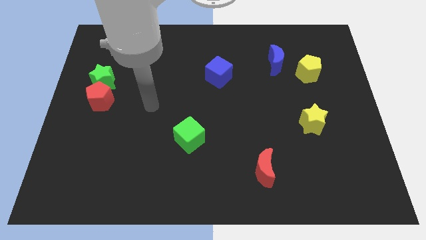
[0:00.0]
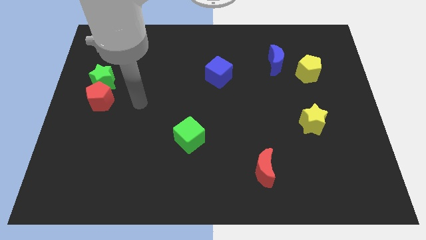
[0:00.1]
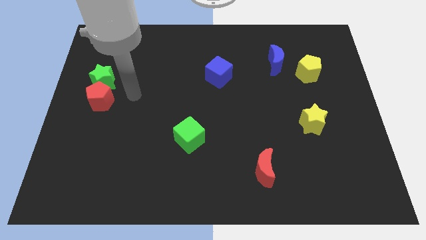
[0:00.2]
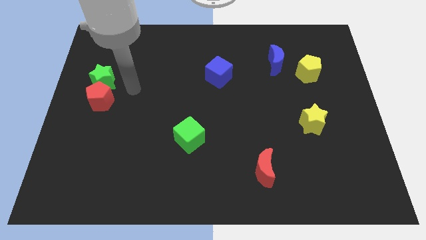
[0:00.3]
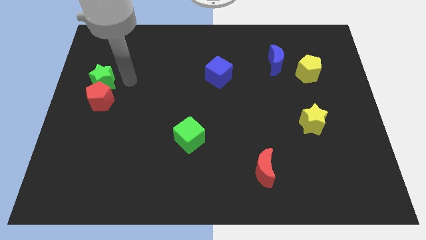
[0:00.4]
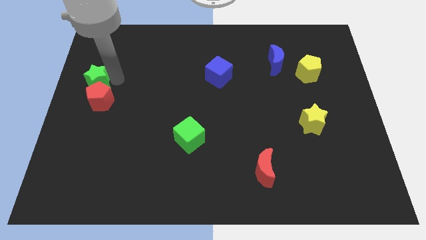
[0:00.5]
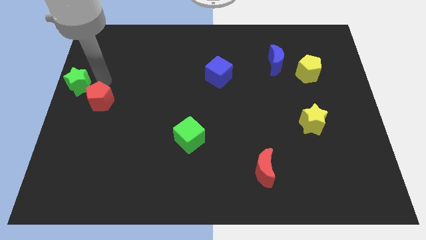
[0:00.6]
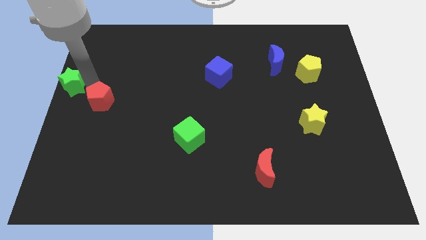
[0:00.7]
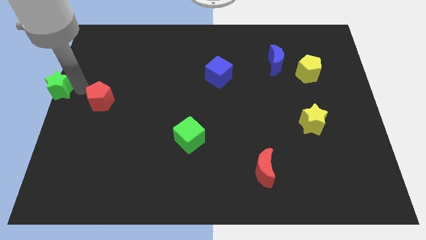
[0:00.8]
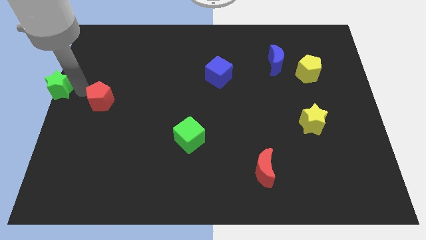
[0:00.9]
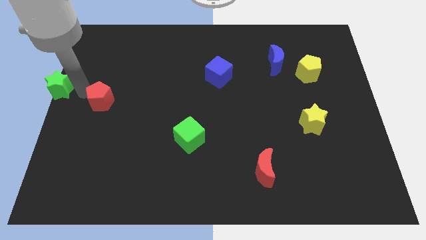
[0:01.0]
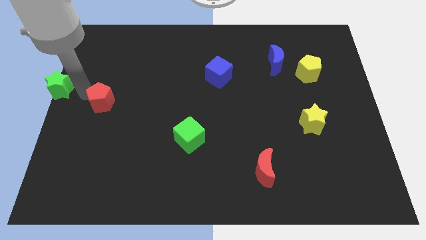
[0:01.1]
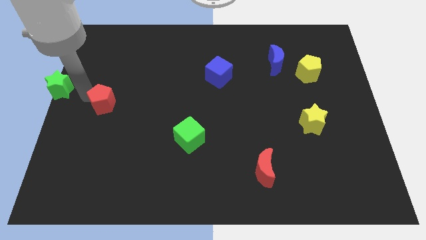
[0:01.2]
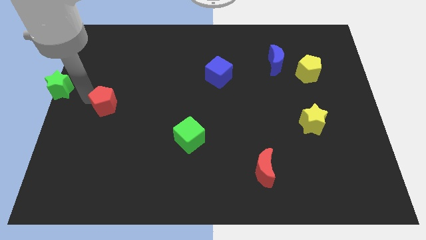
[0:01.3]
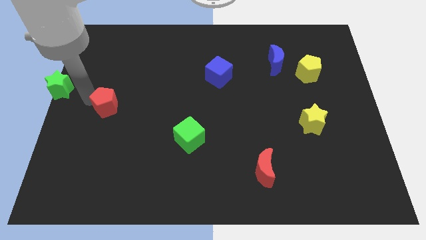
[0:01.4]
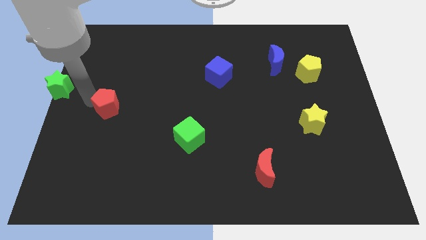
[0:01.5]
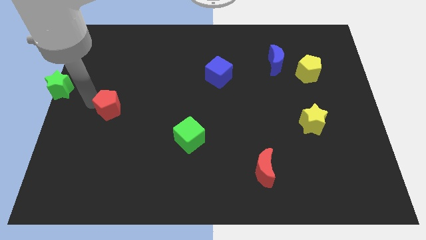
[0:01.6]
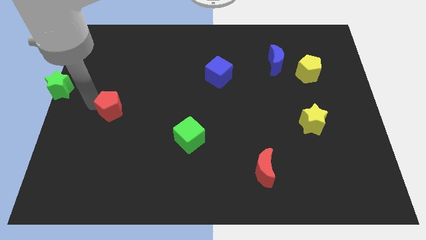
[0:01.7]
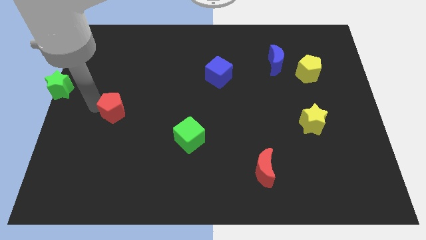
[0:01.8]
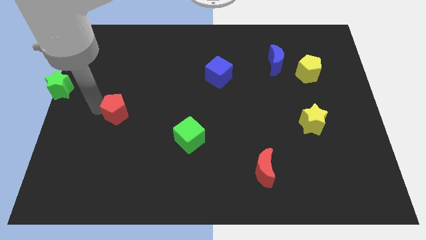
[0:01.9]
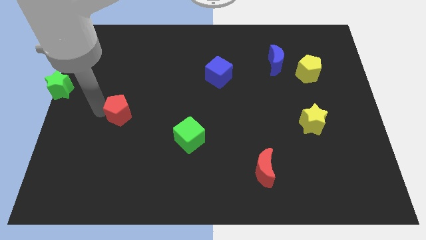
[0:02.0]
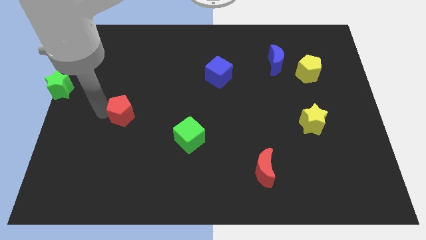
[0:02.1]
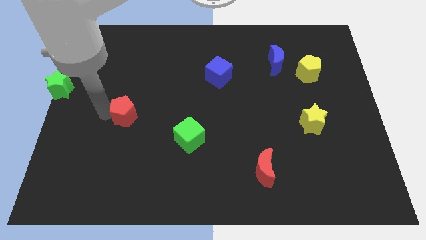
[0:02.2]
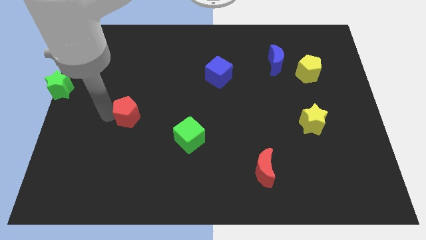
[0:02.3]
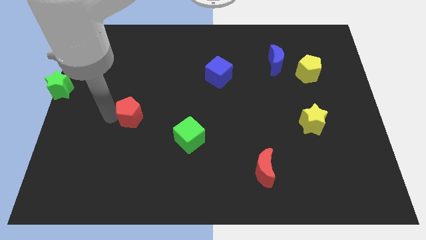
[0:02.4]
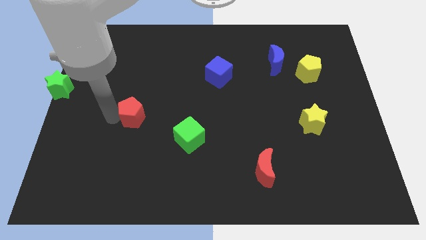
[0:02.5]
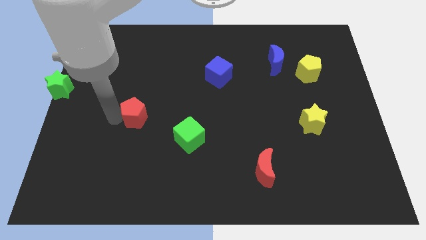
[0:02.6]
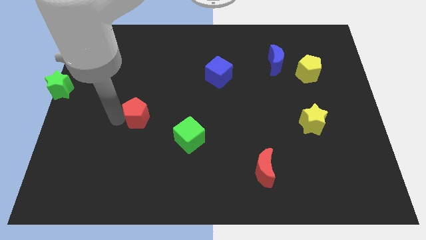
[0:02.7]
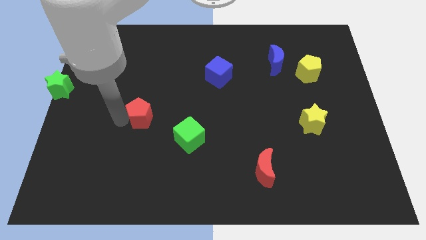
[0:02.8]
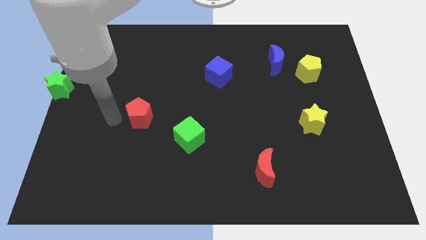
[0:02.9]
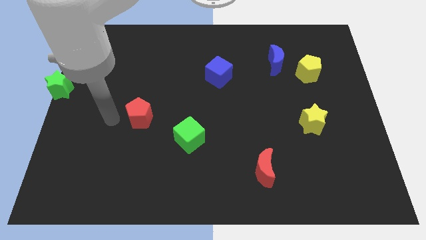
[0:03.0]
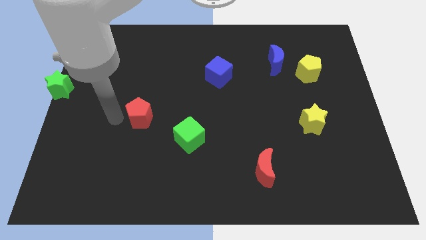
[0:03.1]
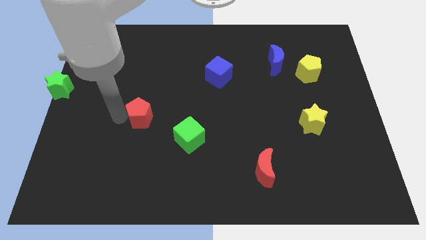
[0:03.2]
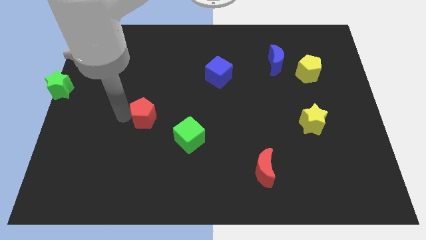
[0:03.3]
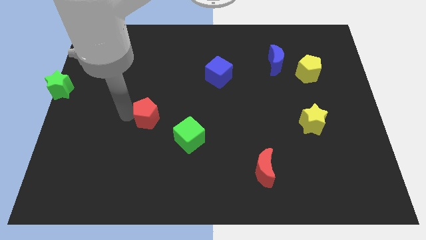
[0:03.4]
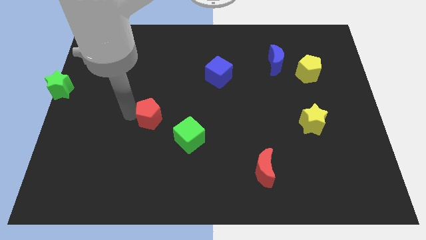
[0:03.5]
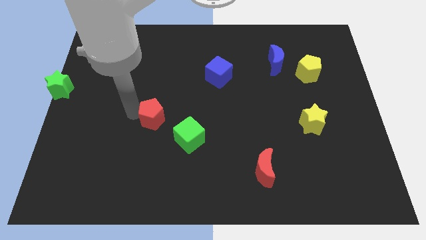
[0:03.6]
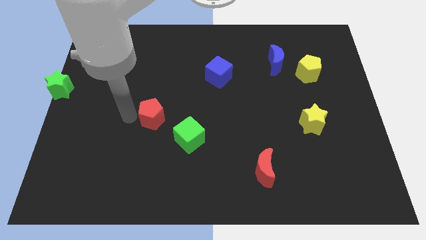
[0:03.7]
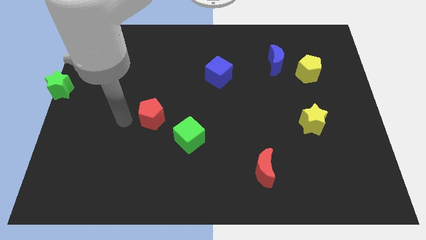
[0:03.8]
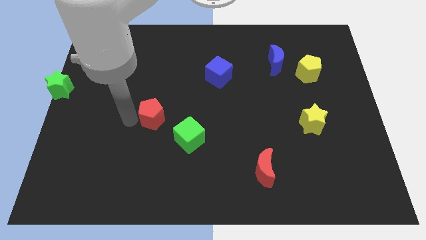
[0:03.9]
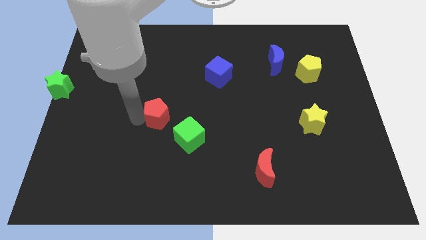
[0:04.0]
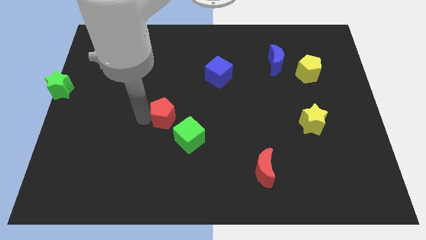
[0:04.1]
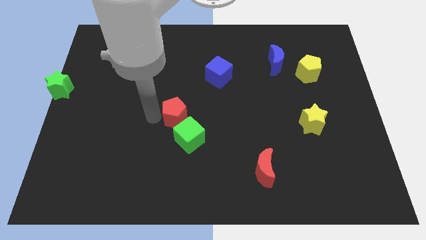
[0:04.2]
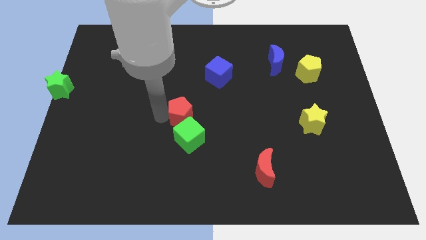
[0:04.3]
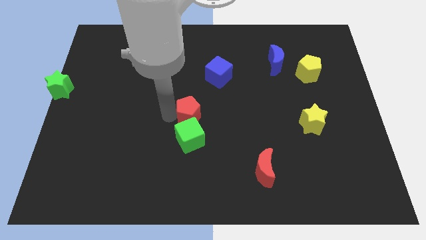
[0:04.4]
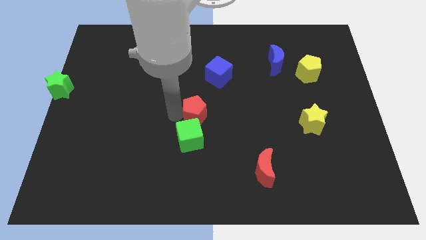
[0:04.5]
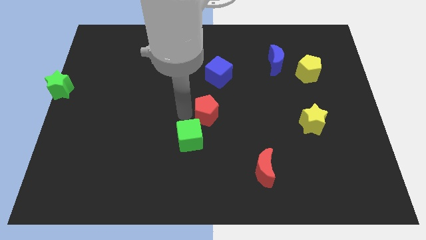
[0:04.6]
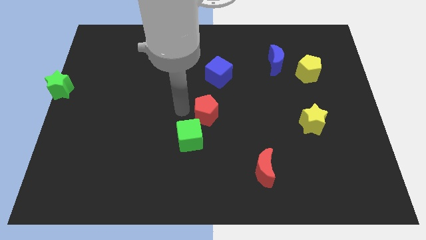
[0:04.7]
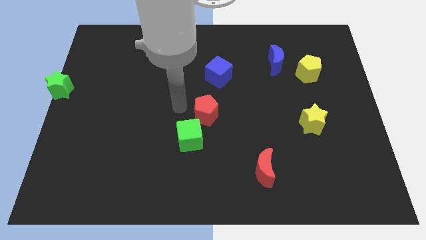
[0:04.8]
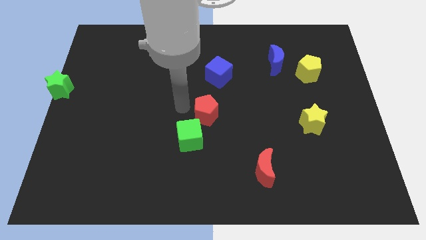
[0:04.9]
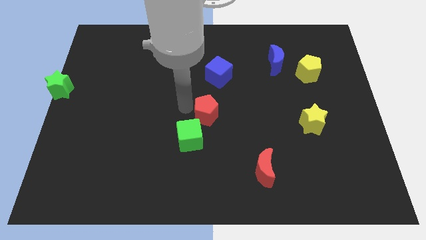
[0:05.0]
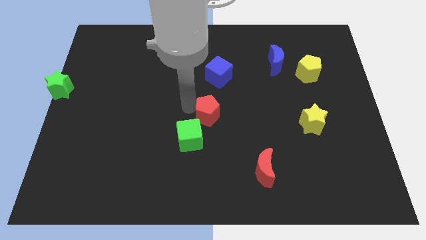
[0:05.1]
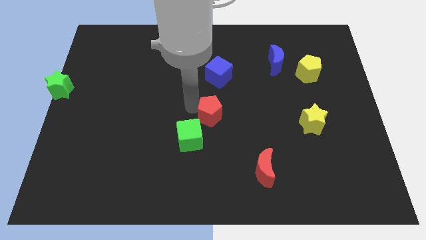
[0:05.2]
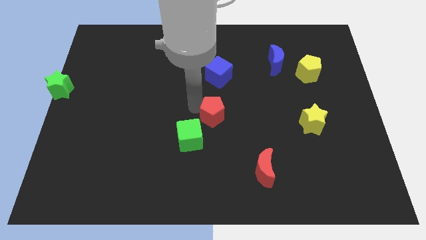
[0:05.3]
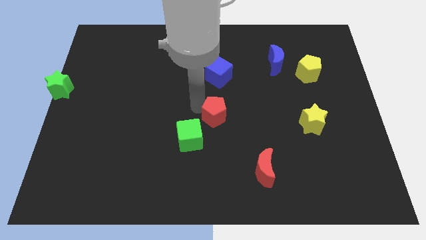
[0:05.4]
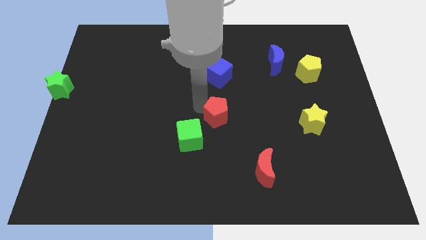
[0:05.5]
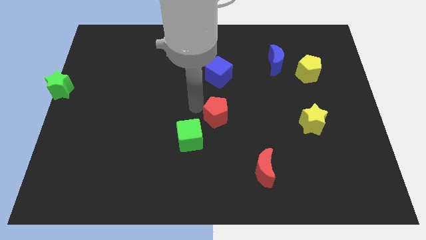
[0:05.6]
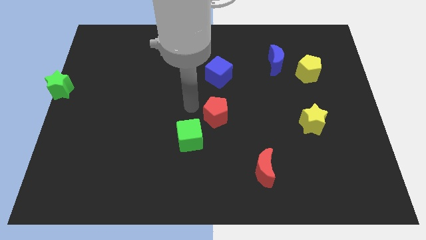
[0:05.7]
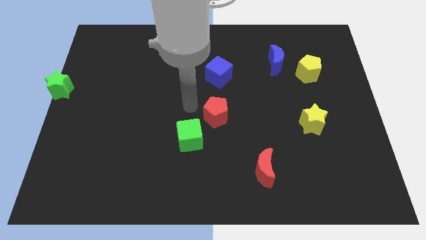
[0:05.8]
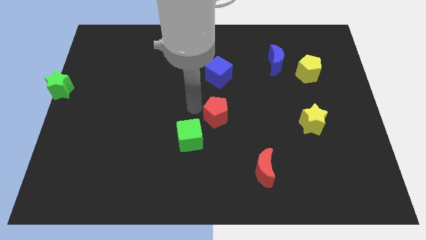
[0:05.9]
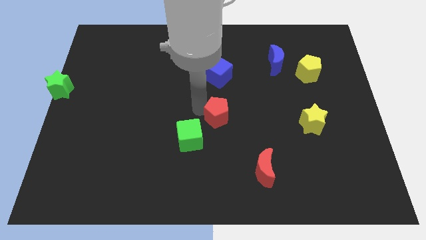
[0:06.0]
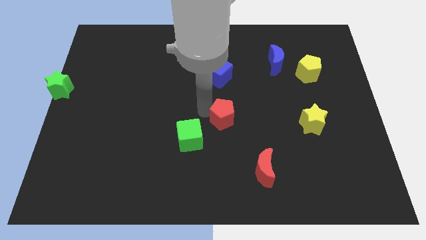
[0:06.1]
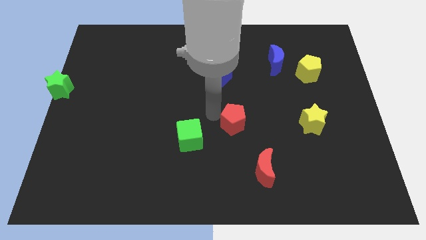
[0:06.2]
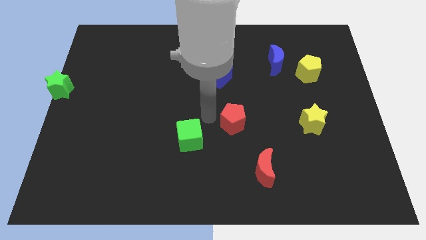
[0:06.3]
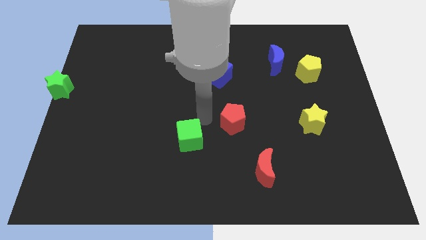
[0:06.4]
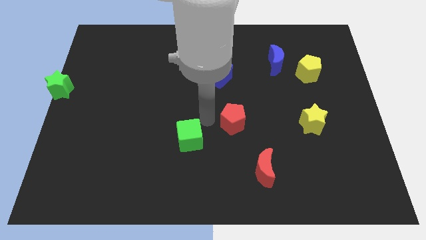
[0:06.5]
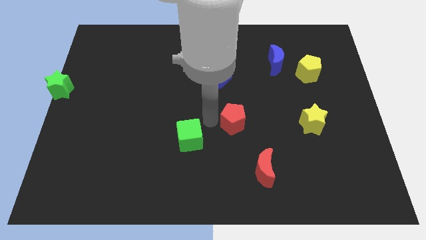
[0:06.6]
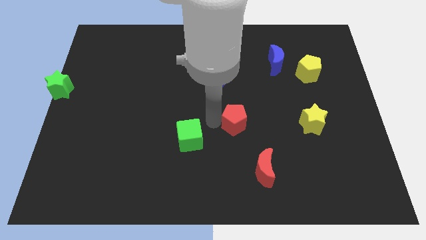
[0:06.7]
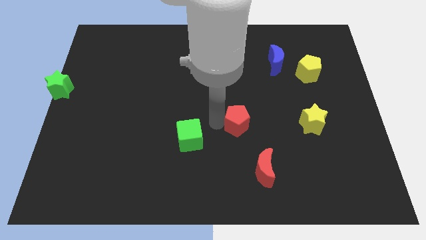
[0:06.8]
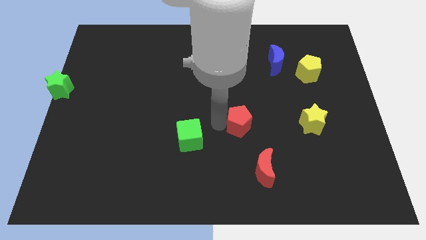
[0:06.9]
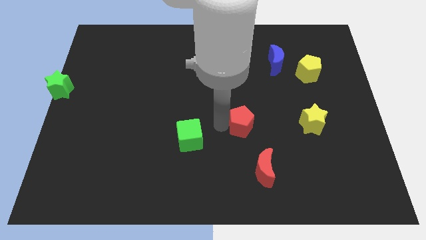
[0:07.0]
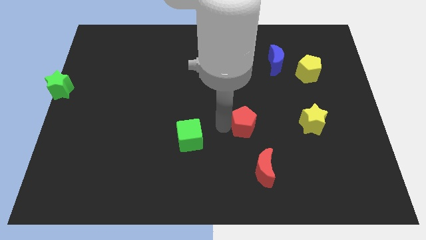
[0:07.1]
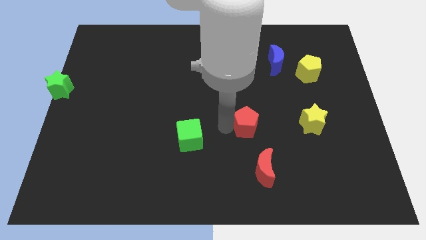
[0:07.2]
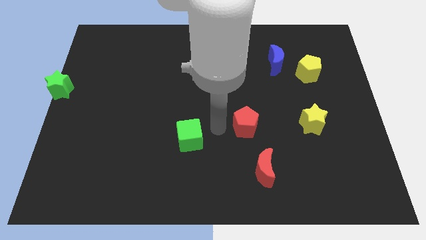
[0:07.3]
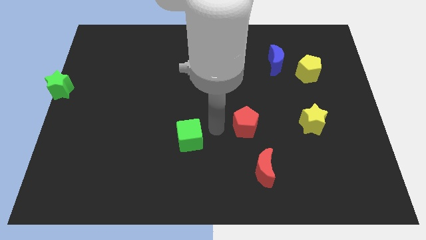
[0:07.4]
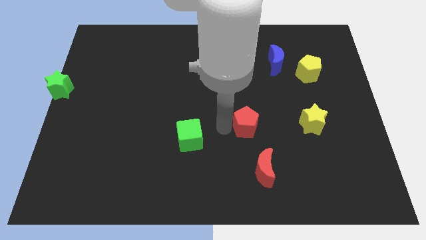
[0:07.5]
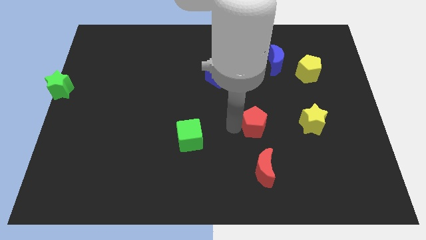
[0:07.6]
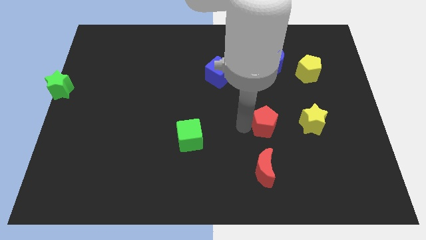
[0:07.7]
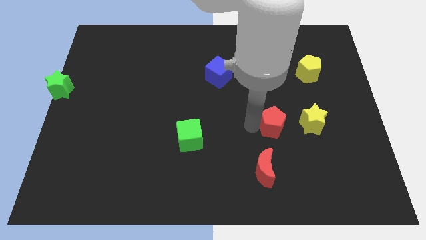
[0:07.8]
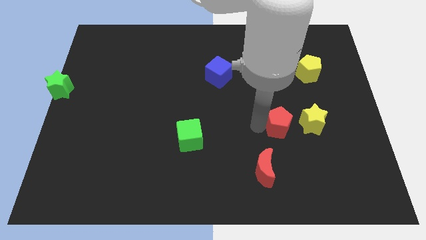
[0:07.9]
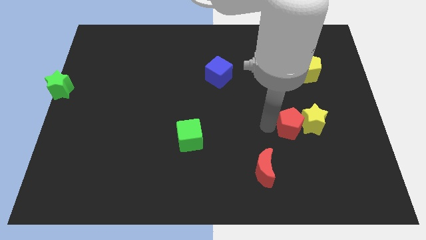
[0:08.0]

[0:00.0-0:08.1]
slide the red pentagon next to the yellow star
